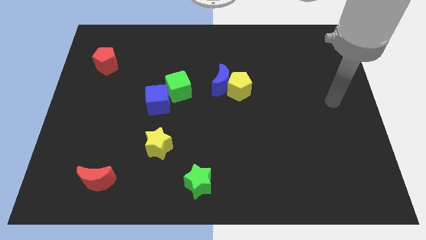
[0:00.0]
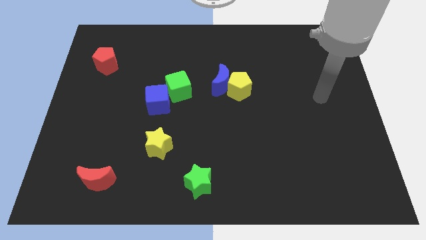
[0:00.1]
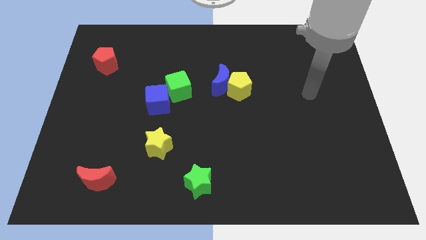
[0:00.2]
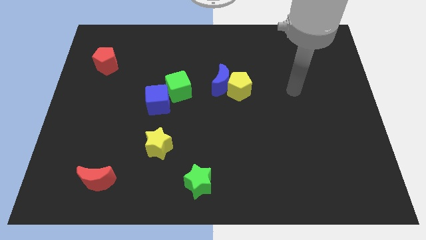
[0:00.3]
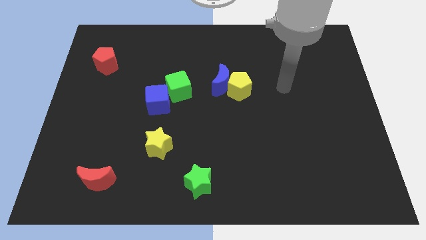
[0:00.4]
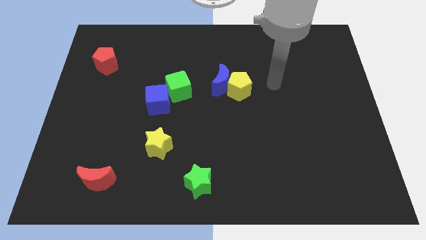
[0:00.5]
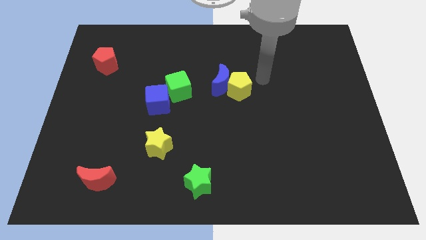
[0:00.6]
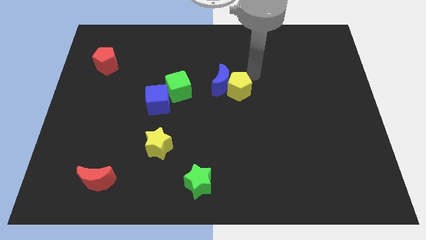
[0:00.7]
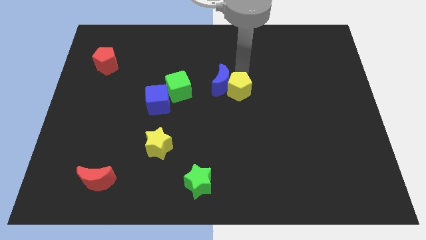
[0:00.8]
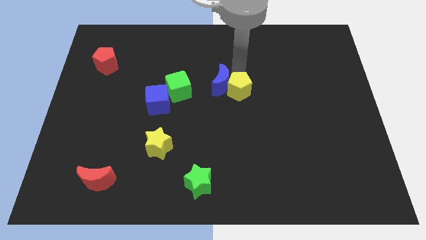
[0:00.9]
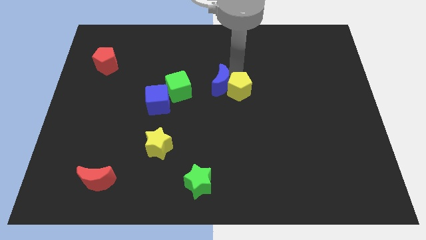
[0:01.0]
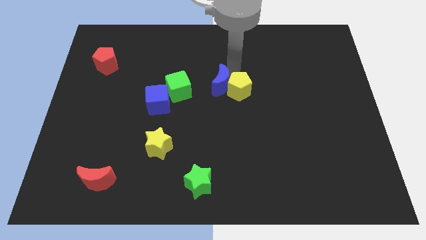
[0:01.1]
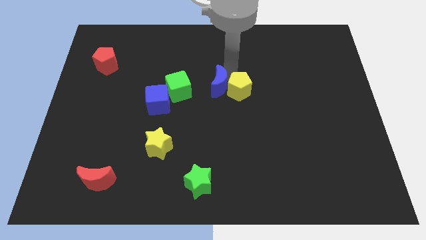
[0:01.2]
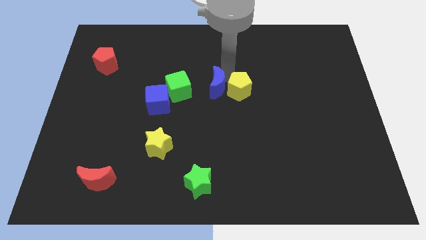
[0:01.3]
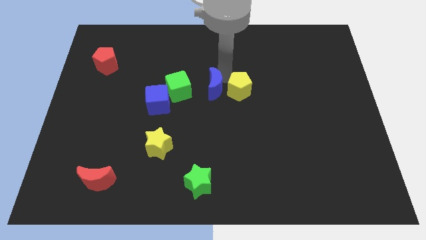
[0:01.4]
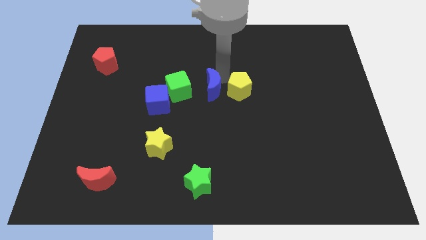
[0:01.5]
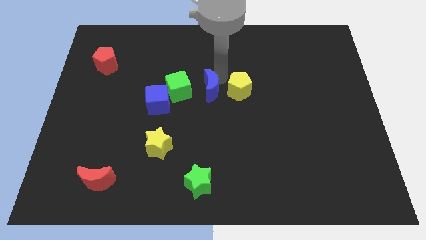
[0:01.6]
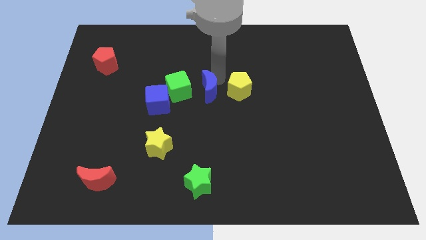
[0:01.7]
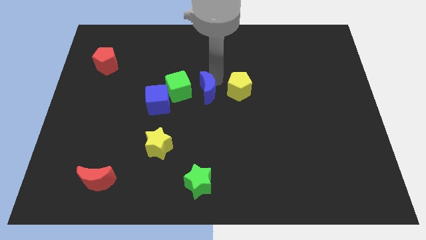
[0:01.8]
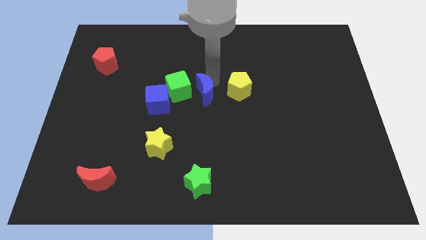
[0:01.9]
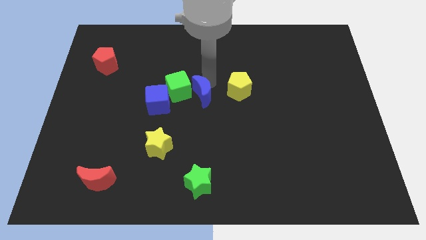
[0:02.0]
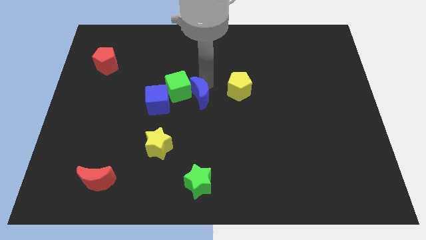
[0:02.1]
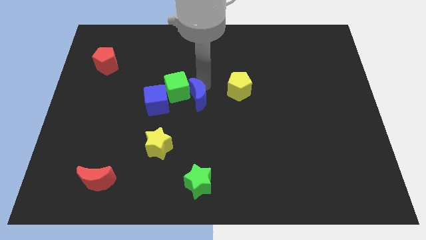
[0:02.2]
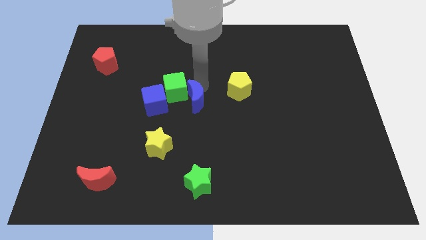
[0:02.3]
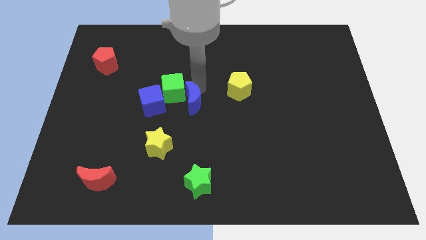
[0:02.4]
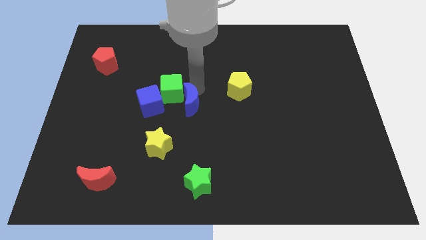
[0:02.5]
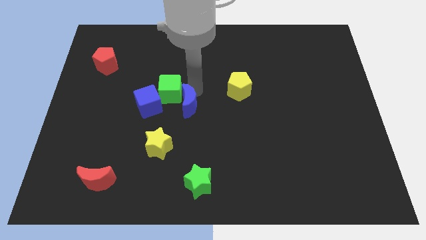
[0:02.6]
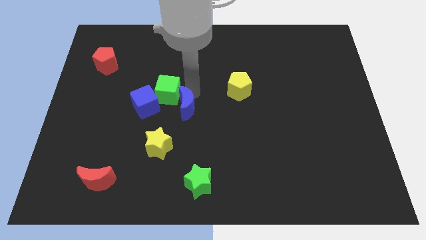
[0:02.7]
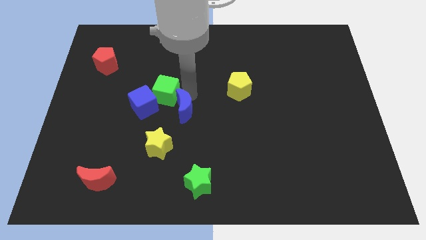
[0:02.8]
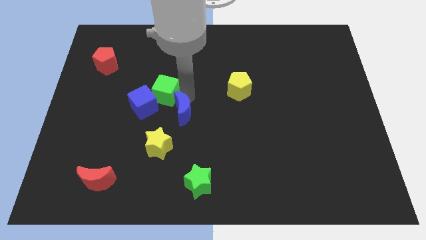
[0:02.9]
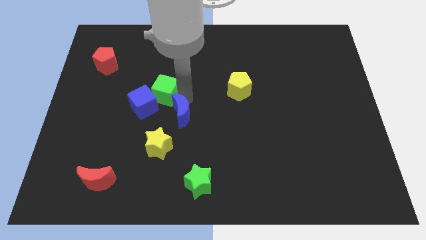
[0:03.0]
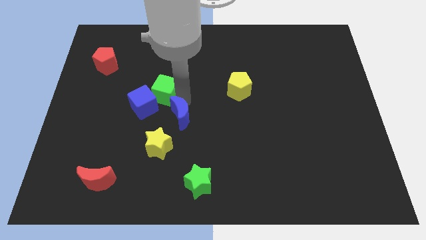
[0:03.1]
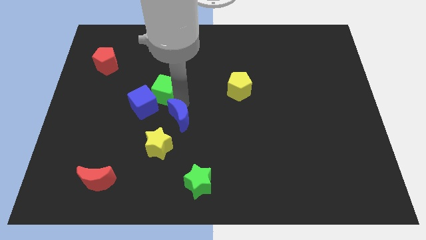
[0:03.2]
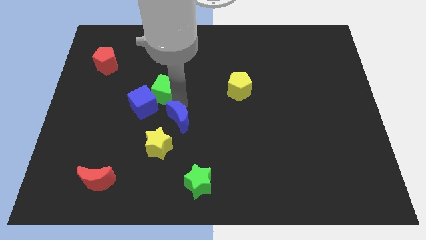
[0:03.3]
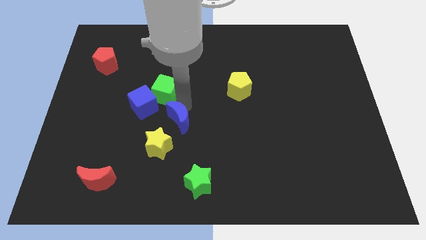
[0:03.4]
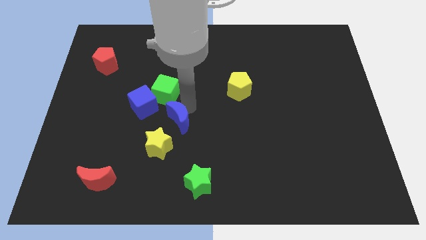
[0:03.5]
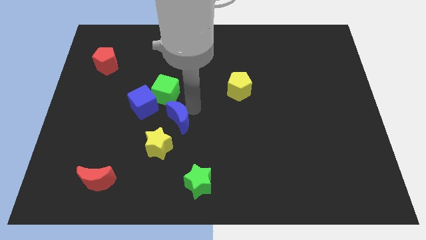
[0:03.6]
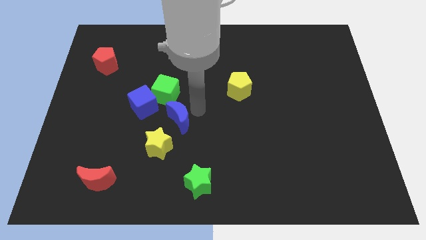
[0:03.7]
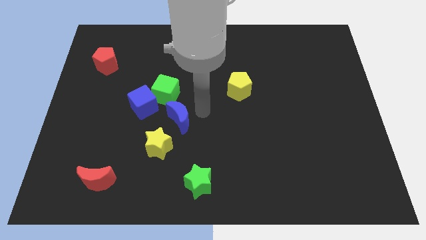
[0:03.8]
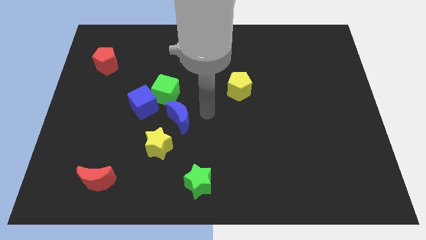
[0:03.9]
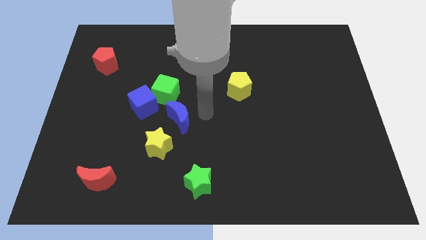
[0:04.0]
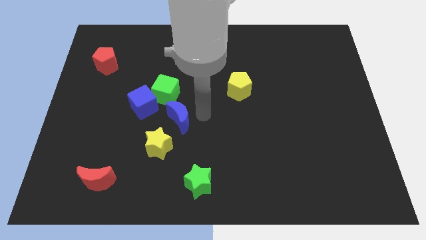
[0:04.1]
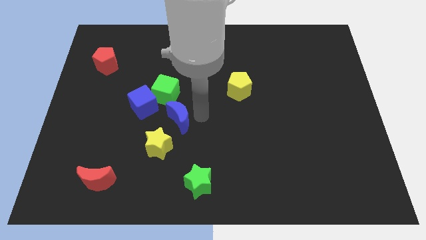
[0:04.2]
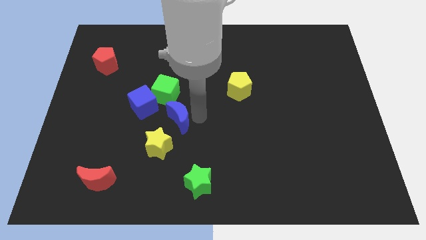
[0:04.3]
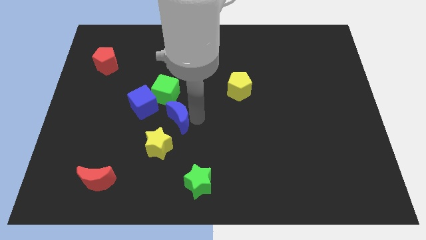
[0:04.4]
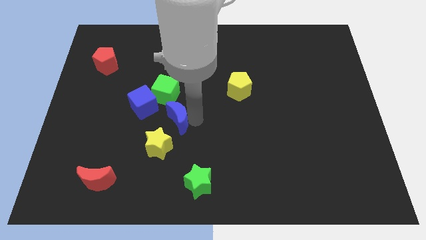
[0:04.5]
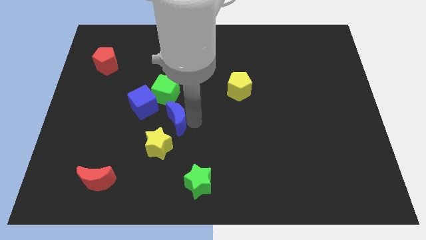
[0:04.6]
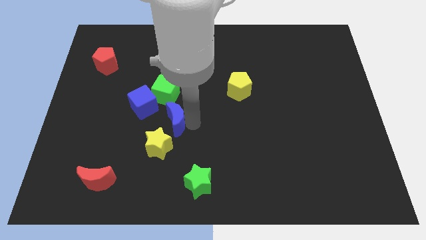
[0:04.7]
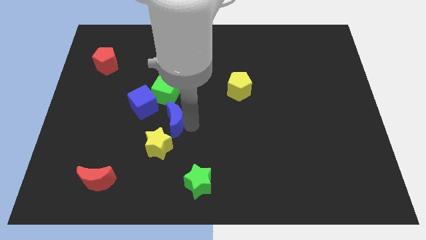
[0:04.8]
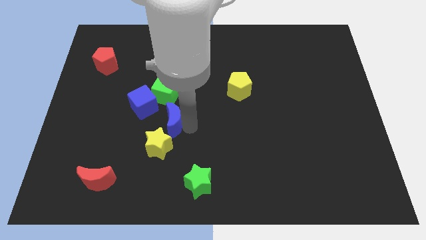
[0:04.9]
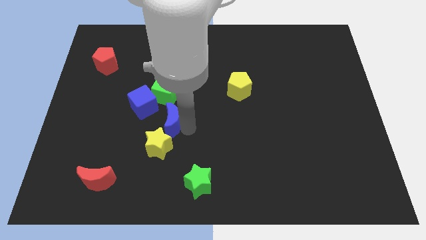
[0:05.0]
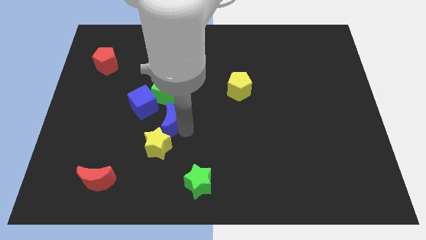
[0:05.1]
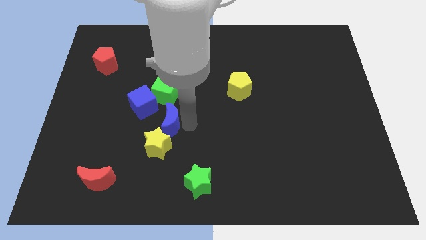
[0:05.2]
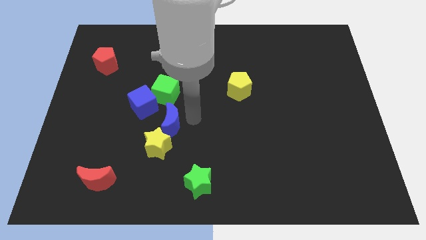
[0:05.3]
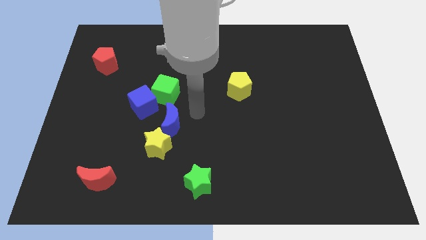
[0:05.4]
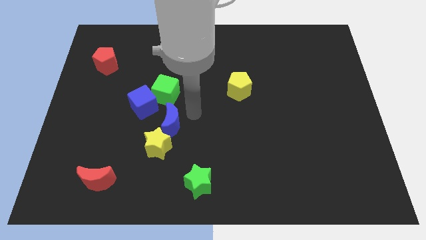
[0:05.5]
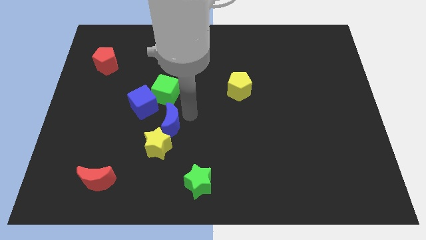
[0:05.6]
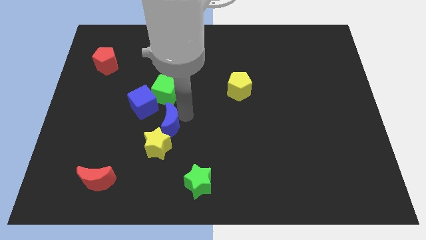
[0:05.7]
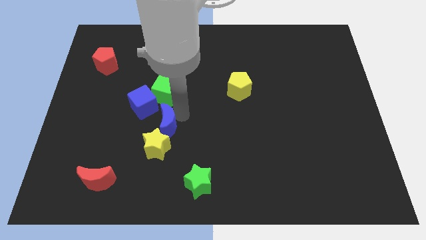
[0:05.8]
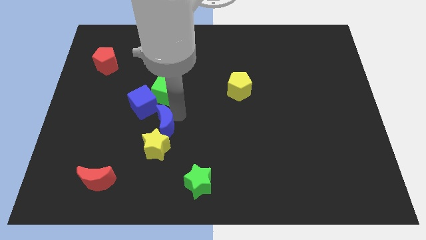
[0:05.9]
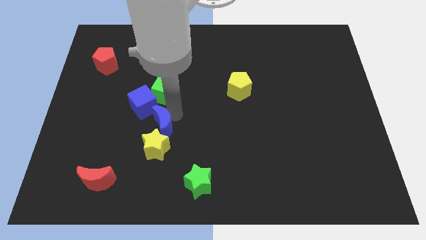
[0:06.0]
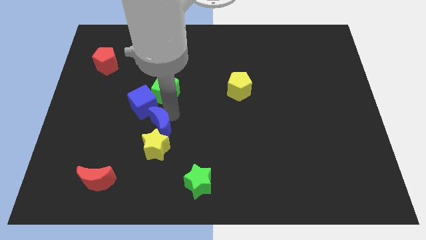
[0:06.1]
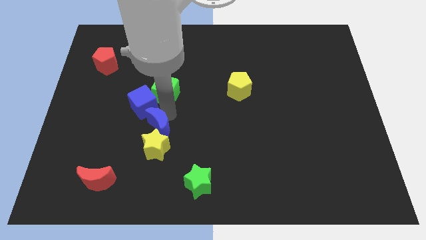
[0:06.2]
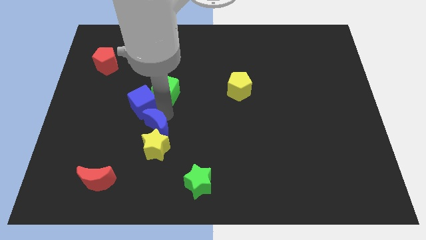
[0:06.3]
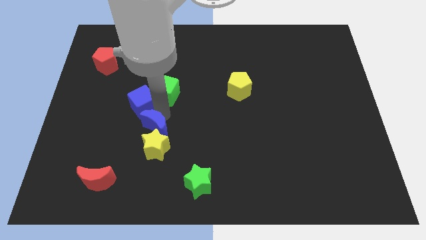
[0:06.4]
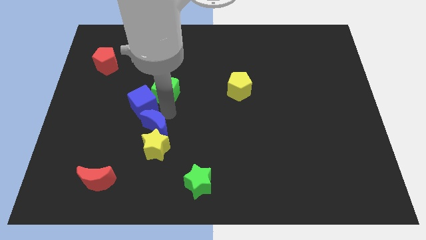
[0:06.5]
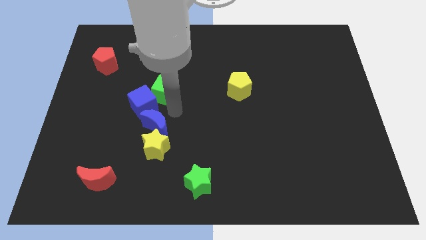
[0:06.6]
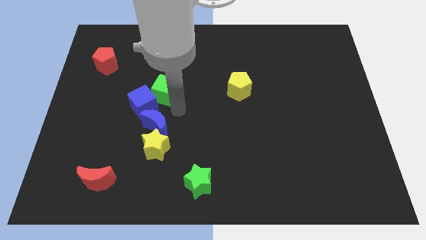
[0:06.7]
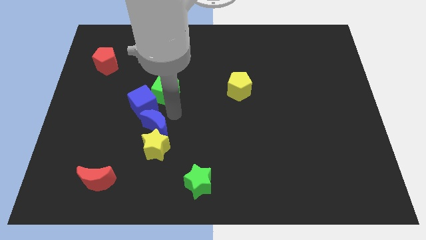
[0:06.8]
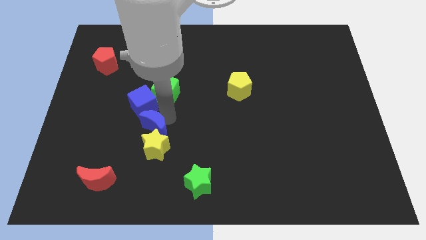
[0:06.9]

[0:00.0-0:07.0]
push the blue moon diagonally down and left

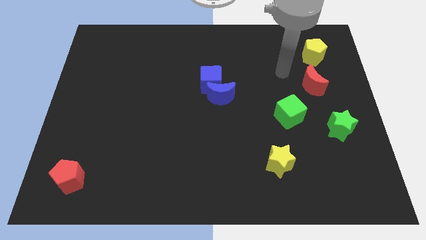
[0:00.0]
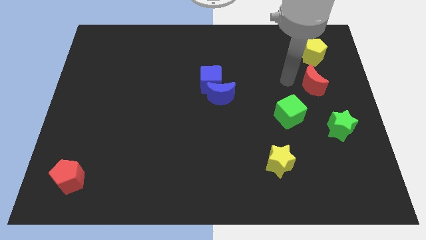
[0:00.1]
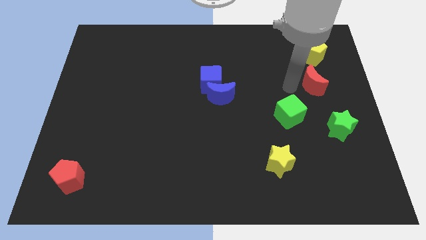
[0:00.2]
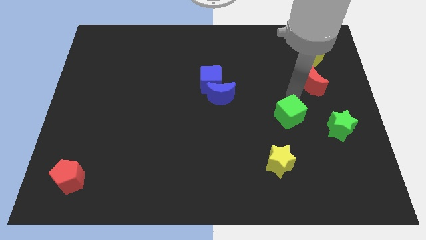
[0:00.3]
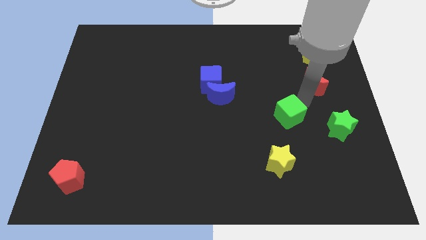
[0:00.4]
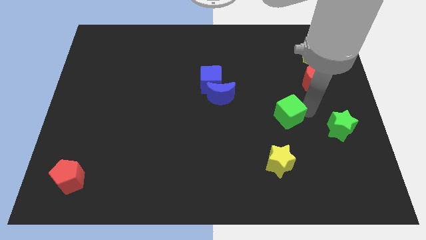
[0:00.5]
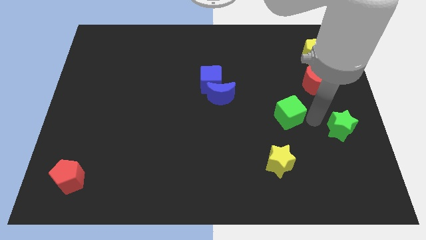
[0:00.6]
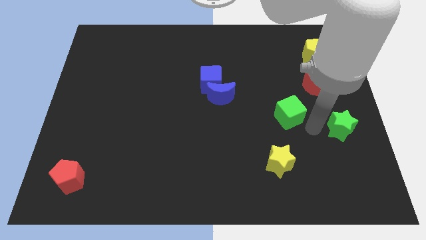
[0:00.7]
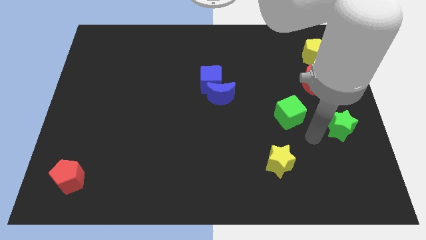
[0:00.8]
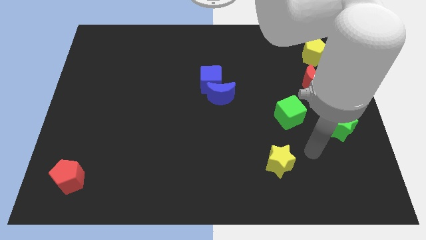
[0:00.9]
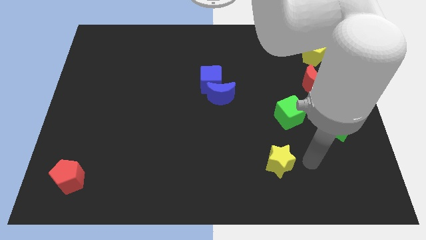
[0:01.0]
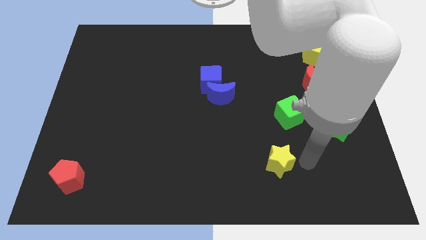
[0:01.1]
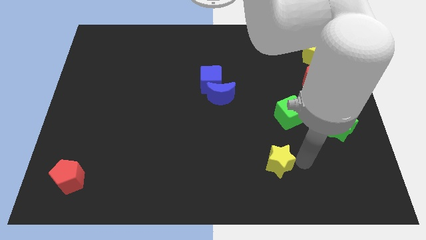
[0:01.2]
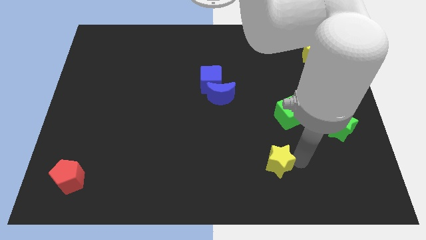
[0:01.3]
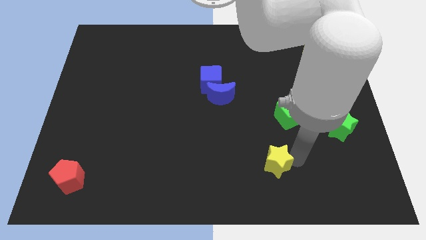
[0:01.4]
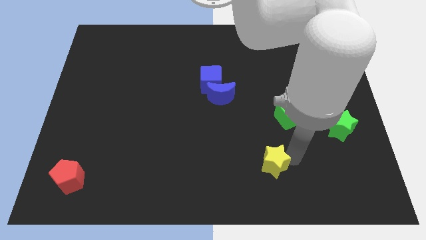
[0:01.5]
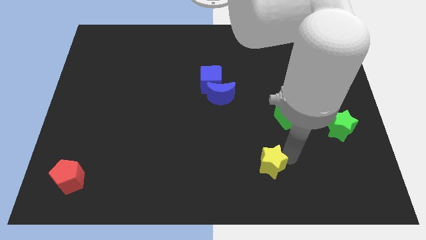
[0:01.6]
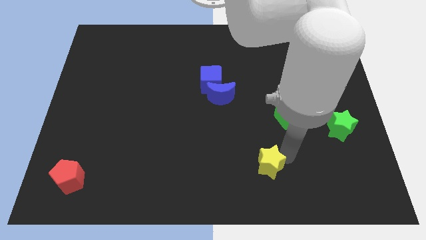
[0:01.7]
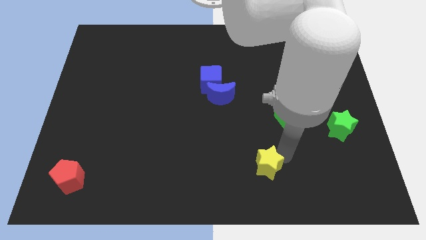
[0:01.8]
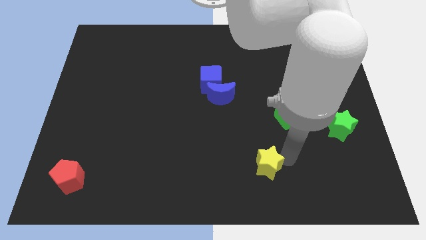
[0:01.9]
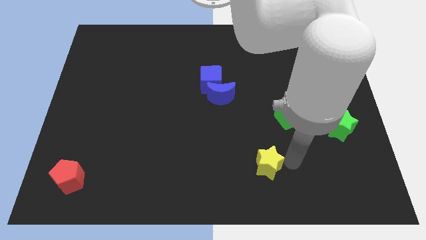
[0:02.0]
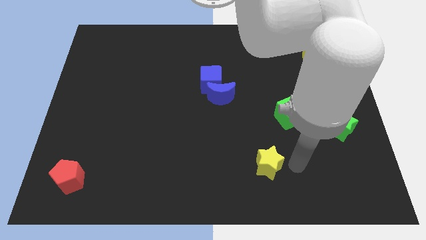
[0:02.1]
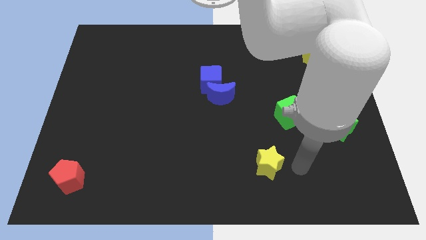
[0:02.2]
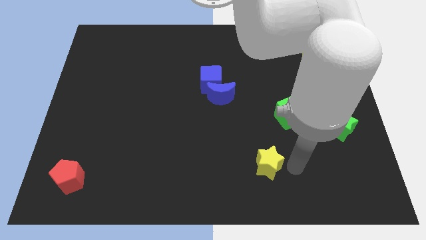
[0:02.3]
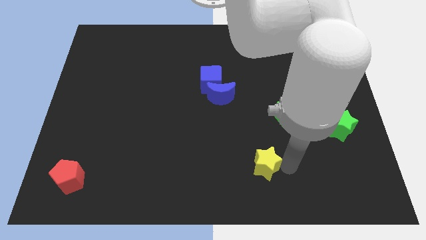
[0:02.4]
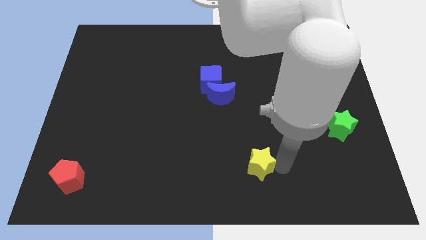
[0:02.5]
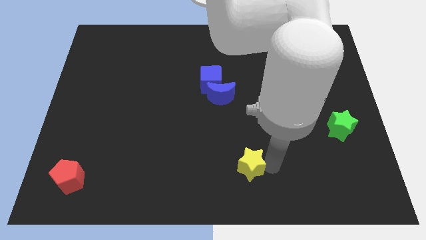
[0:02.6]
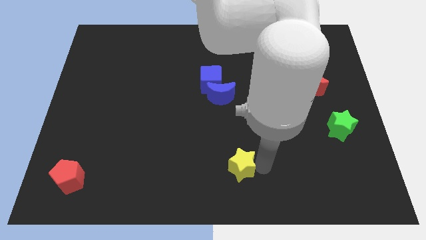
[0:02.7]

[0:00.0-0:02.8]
slide the yellow star slightly left
